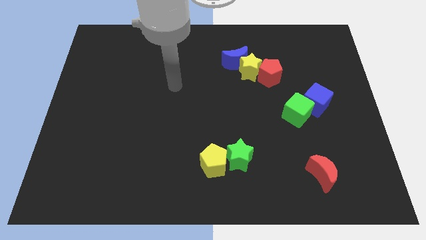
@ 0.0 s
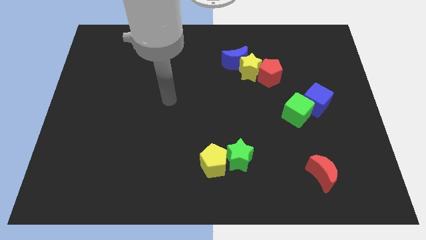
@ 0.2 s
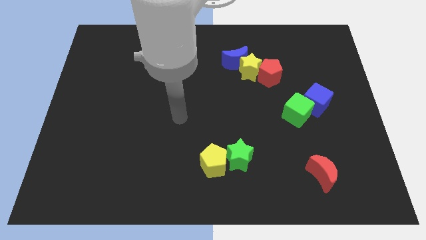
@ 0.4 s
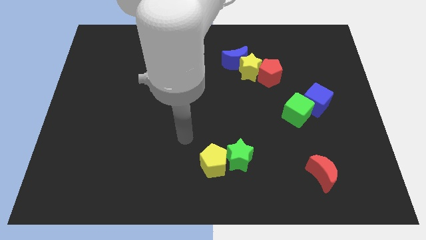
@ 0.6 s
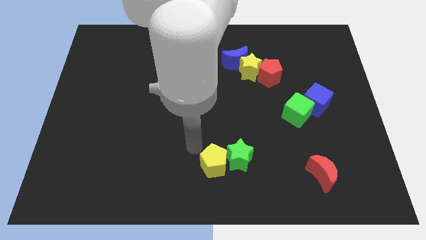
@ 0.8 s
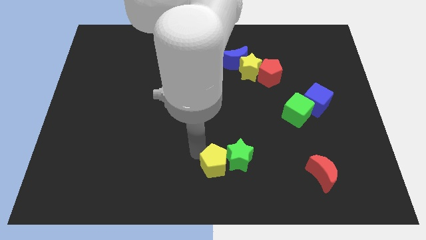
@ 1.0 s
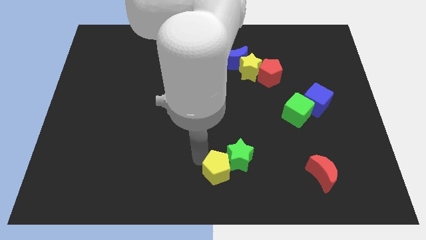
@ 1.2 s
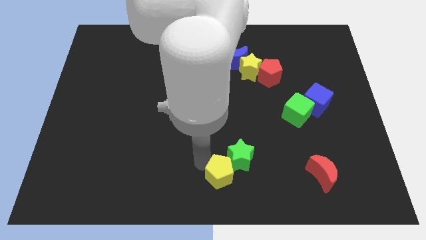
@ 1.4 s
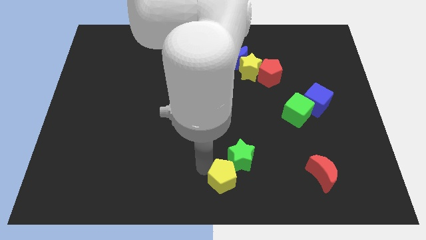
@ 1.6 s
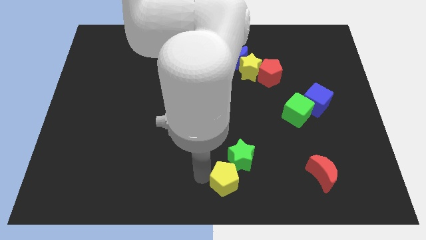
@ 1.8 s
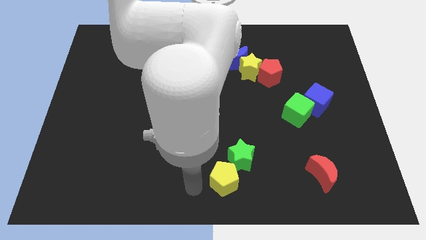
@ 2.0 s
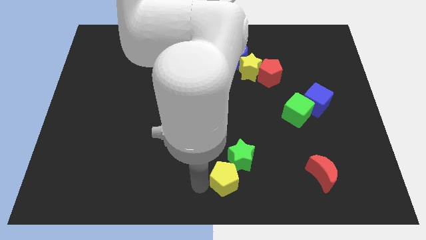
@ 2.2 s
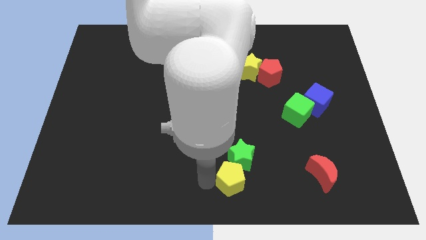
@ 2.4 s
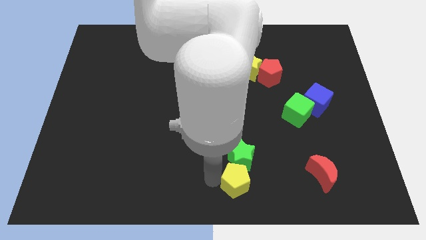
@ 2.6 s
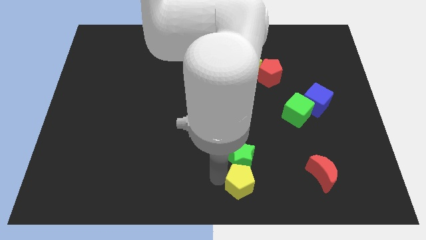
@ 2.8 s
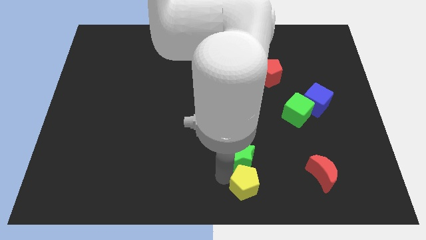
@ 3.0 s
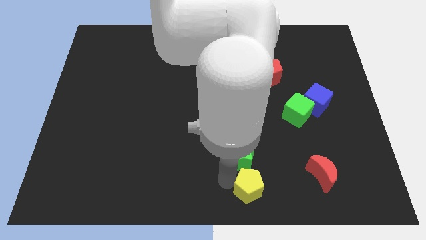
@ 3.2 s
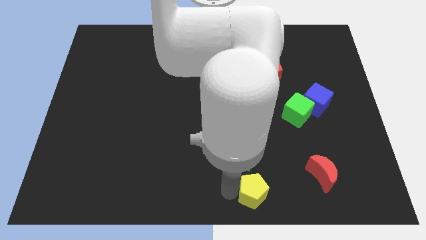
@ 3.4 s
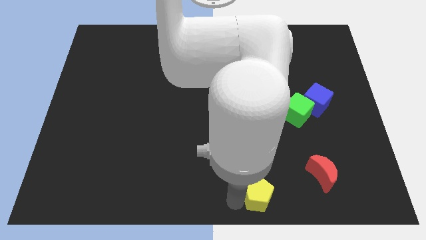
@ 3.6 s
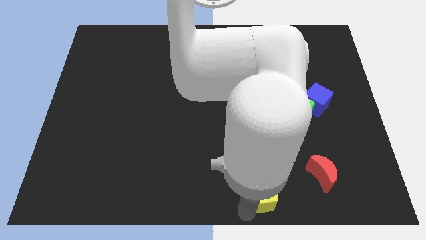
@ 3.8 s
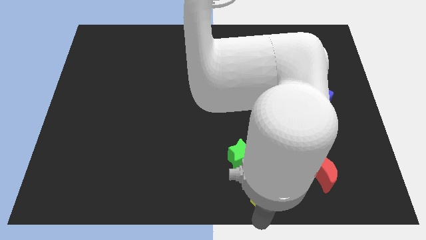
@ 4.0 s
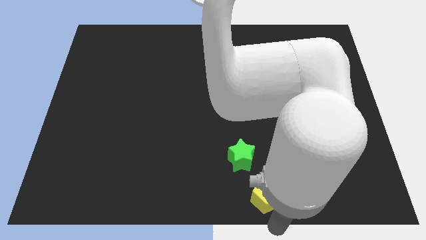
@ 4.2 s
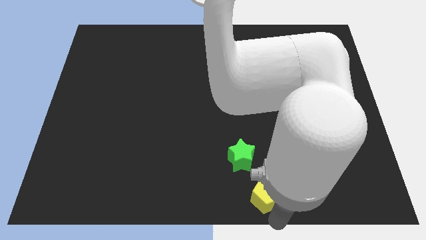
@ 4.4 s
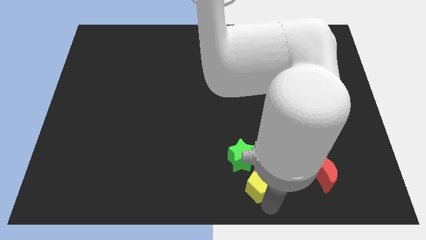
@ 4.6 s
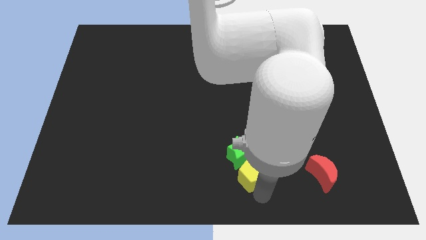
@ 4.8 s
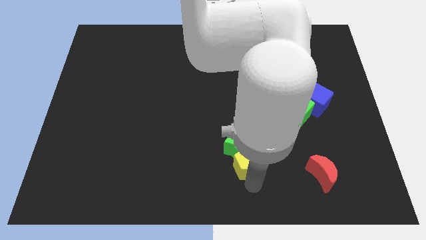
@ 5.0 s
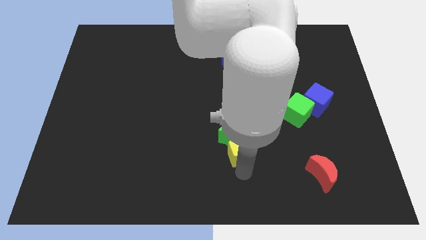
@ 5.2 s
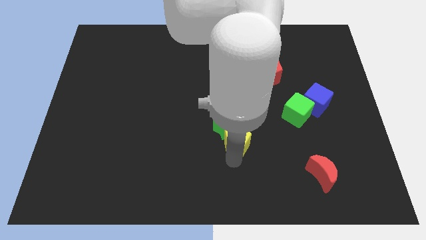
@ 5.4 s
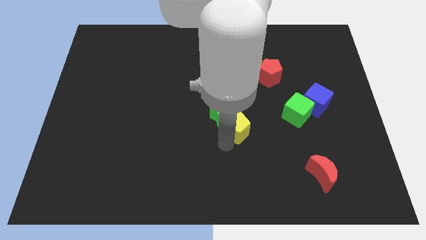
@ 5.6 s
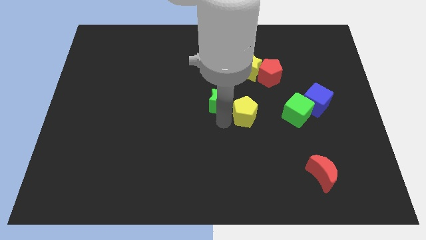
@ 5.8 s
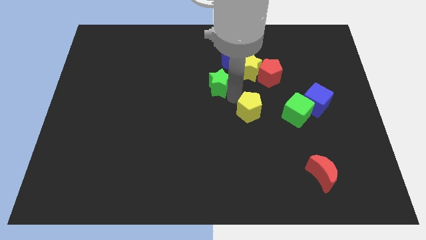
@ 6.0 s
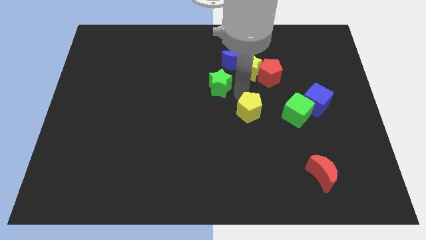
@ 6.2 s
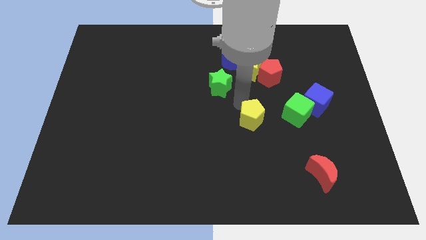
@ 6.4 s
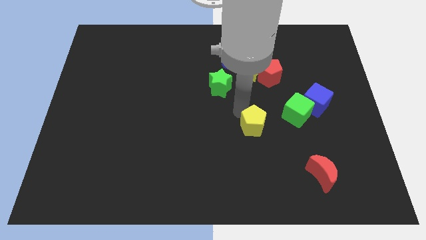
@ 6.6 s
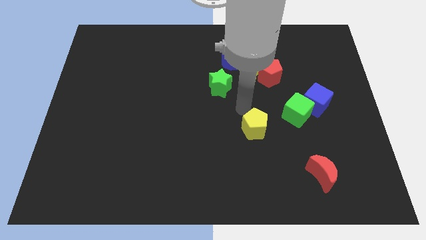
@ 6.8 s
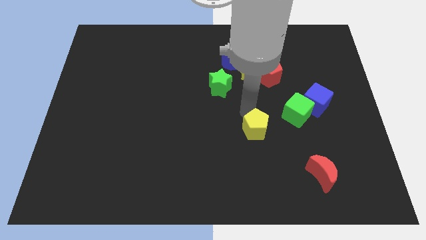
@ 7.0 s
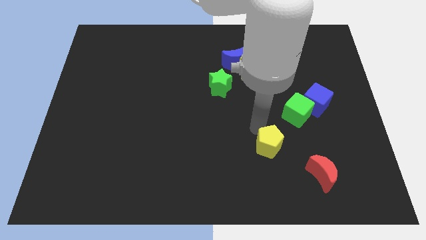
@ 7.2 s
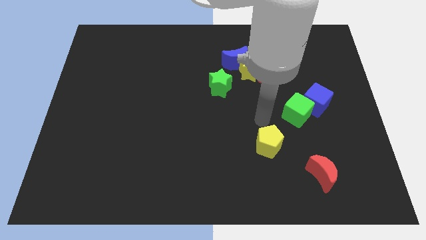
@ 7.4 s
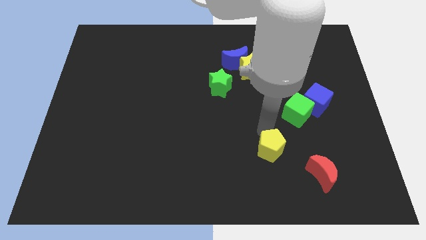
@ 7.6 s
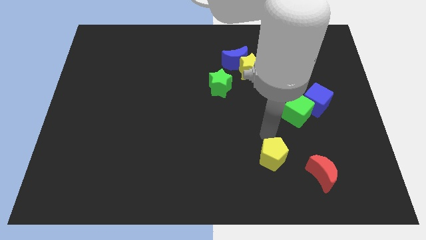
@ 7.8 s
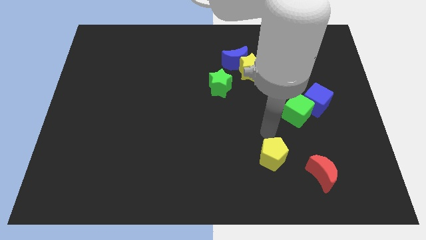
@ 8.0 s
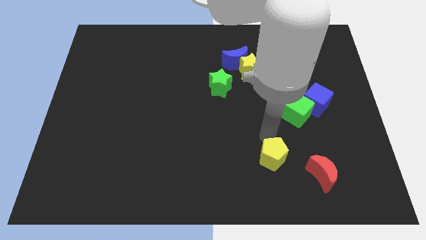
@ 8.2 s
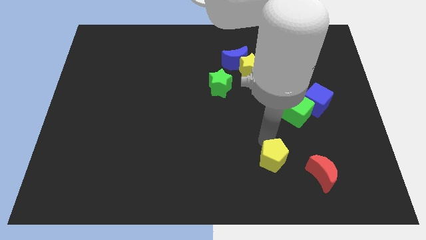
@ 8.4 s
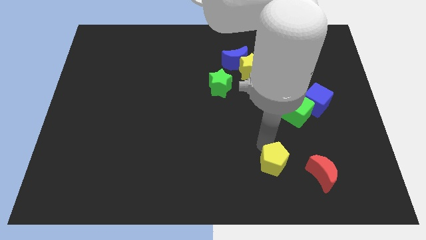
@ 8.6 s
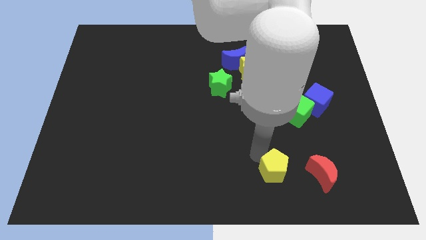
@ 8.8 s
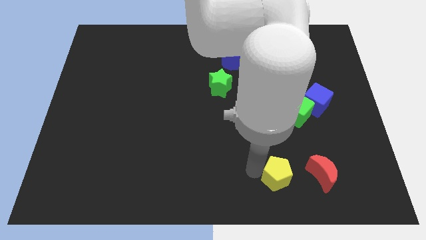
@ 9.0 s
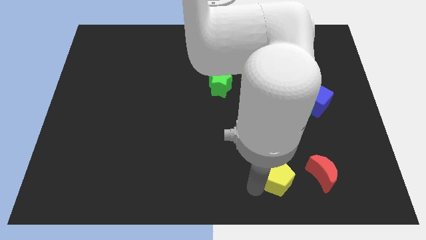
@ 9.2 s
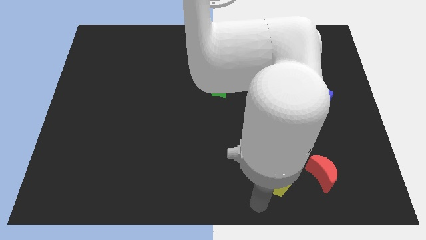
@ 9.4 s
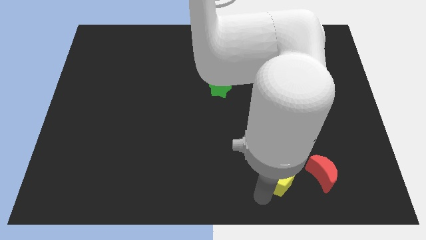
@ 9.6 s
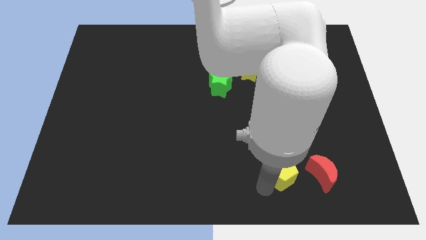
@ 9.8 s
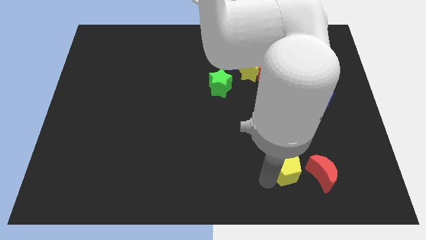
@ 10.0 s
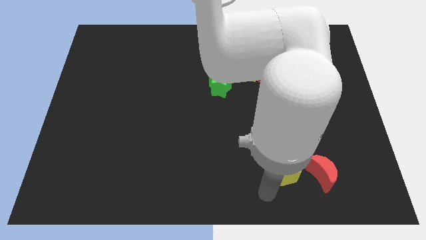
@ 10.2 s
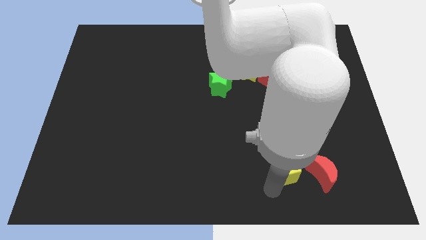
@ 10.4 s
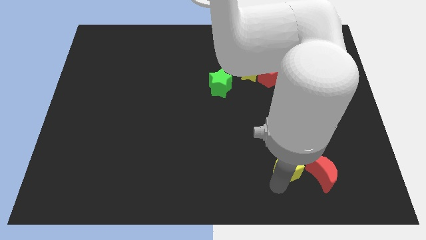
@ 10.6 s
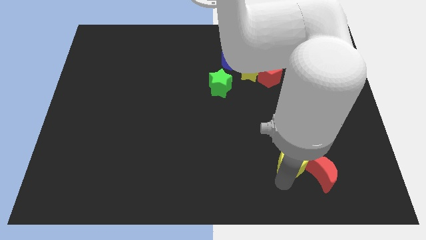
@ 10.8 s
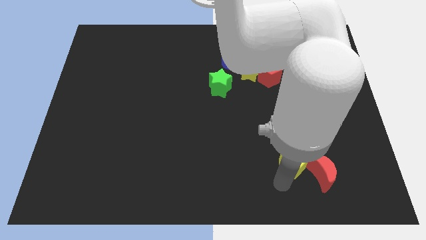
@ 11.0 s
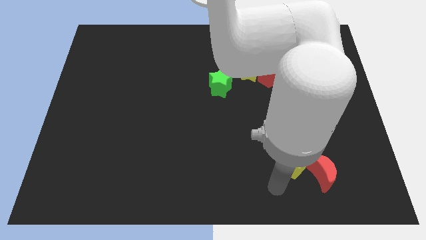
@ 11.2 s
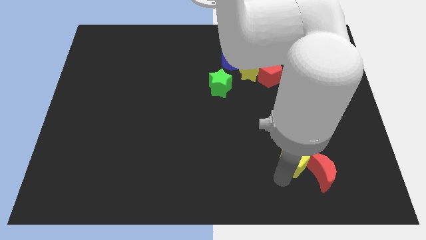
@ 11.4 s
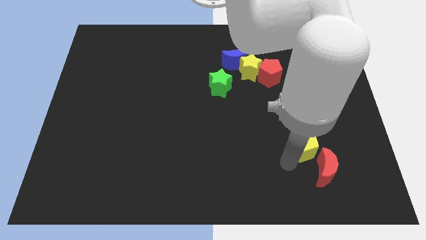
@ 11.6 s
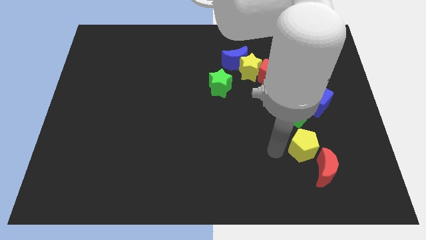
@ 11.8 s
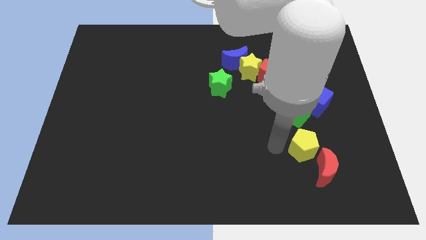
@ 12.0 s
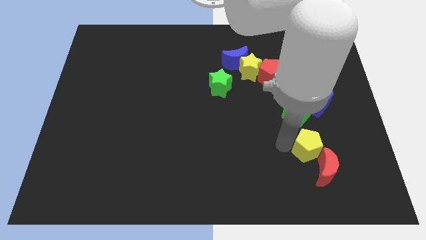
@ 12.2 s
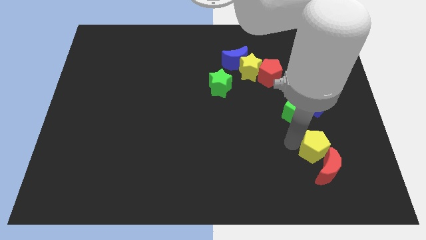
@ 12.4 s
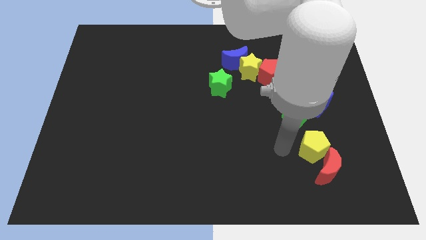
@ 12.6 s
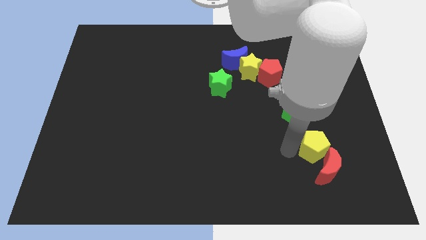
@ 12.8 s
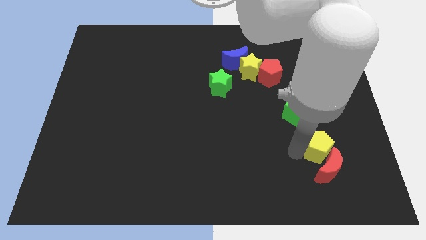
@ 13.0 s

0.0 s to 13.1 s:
move the yellow pentagon to the top right side of the red moon

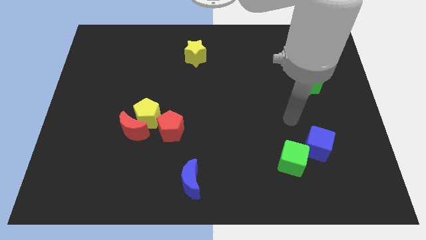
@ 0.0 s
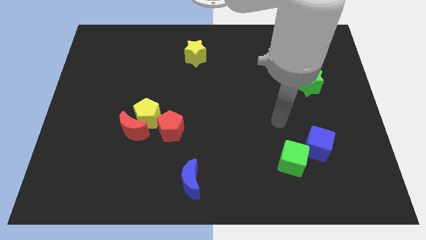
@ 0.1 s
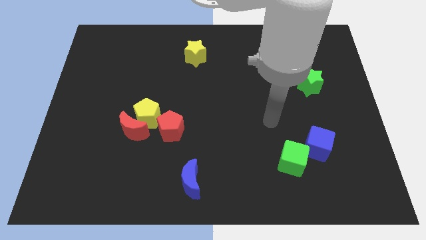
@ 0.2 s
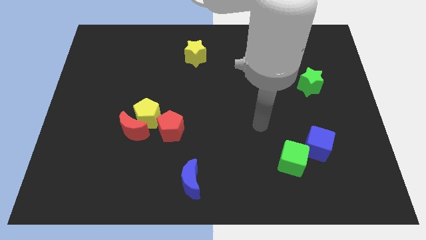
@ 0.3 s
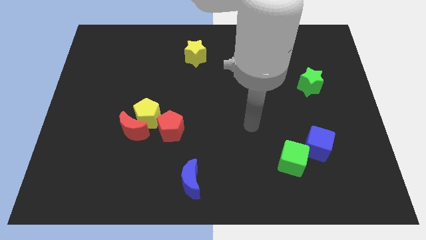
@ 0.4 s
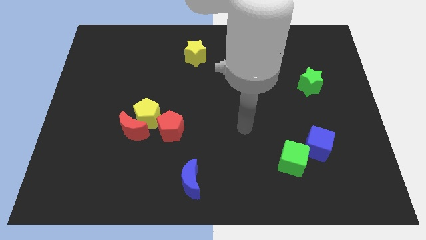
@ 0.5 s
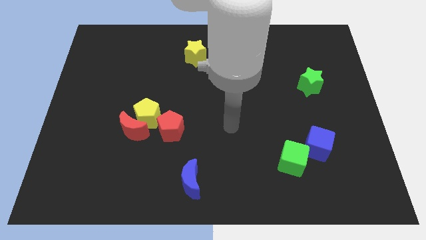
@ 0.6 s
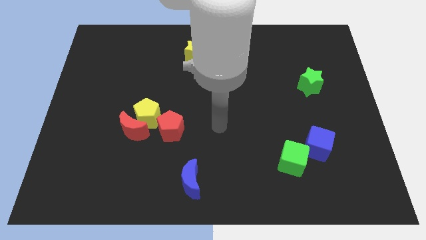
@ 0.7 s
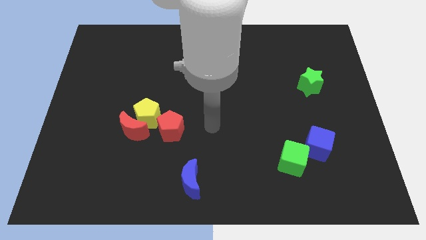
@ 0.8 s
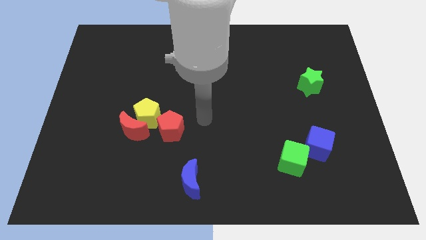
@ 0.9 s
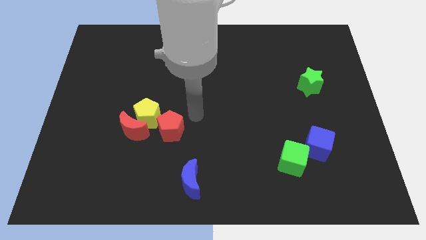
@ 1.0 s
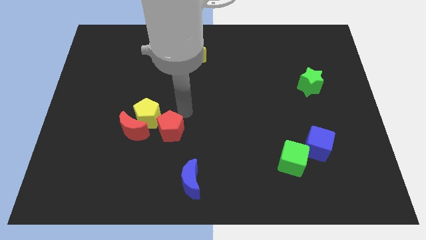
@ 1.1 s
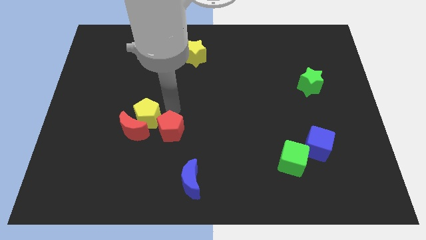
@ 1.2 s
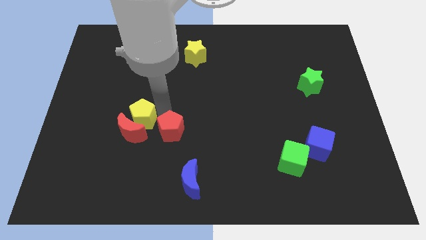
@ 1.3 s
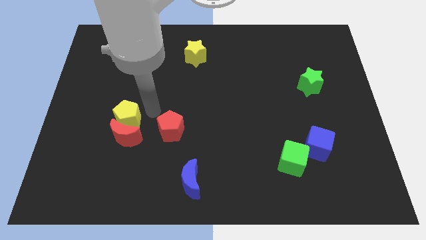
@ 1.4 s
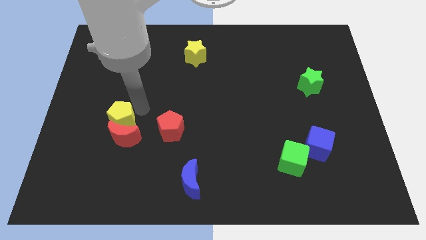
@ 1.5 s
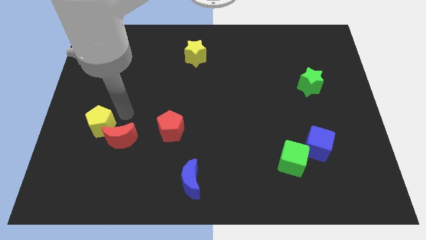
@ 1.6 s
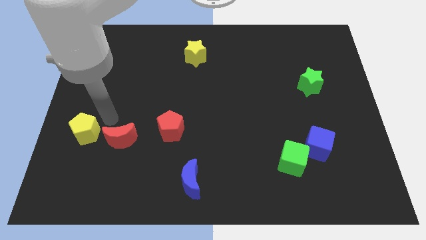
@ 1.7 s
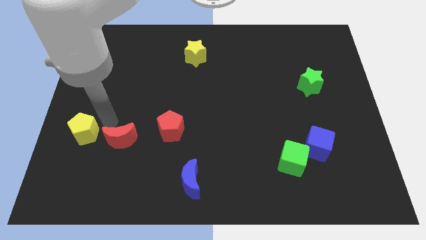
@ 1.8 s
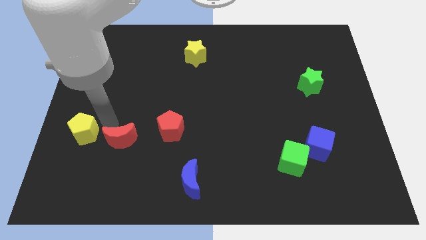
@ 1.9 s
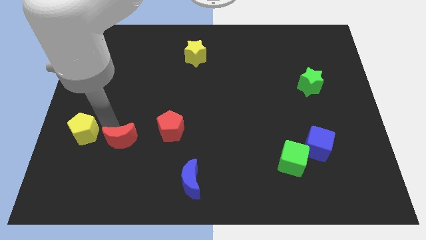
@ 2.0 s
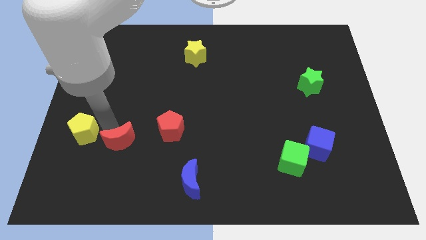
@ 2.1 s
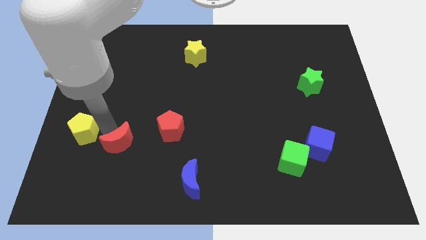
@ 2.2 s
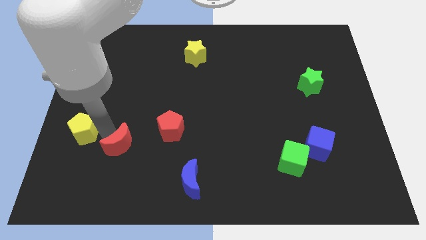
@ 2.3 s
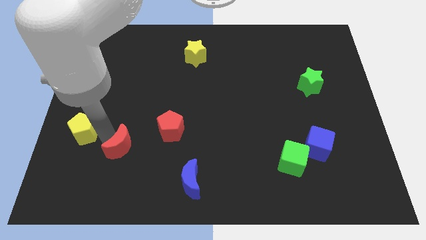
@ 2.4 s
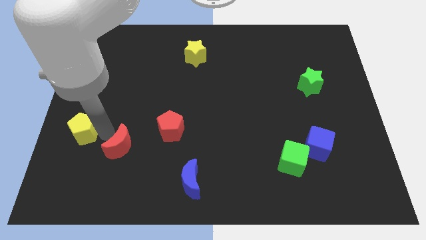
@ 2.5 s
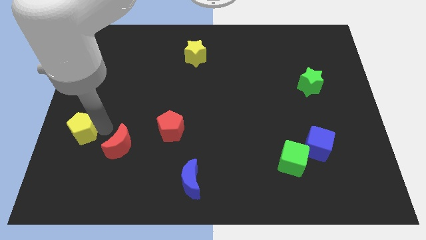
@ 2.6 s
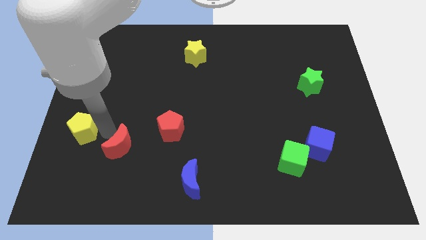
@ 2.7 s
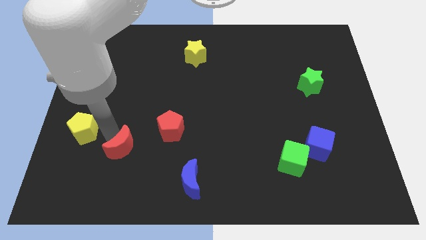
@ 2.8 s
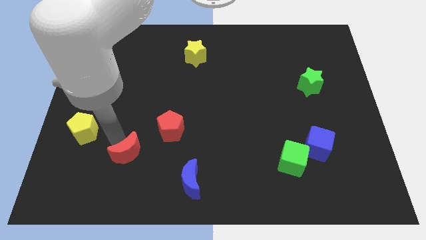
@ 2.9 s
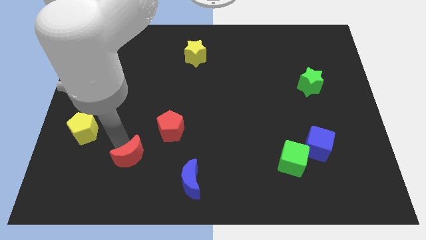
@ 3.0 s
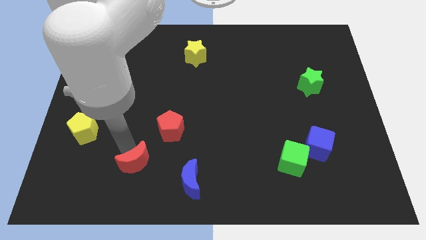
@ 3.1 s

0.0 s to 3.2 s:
move the red moon just left of the blue moon
